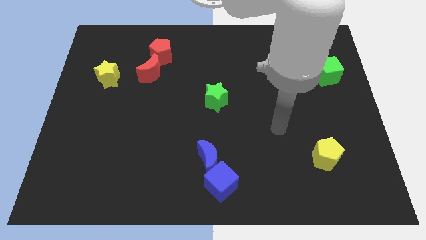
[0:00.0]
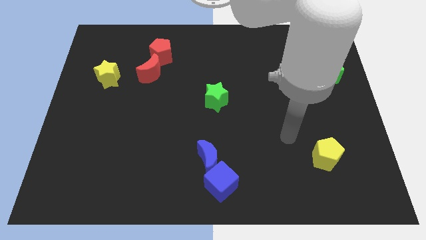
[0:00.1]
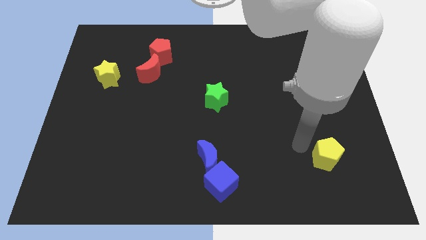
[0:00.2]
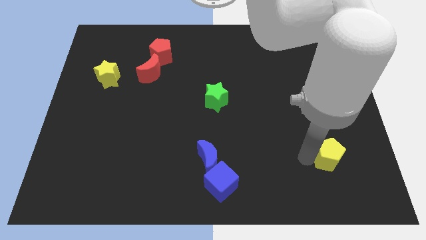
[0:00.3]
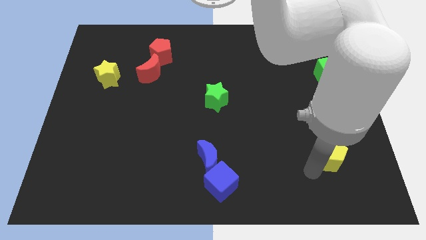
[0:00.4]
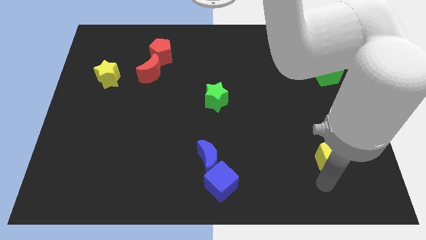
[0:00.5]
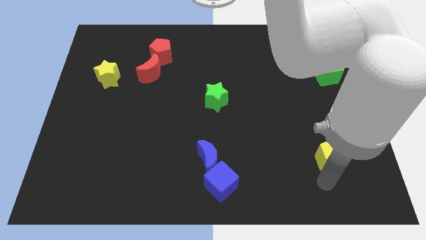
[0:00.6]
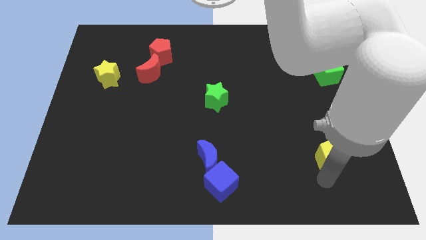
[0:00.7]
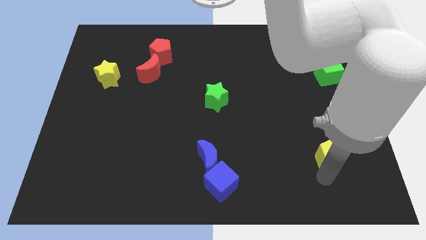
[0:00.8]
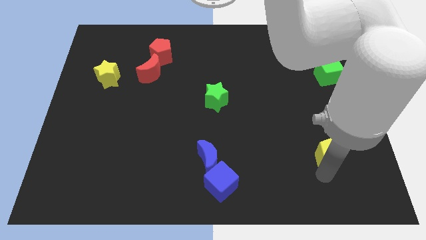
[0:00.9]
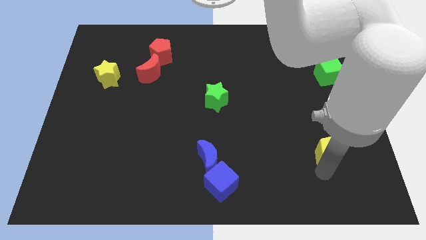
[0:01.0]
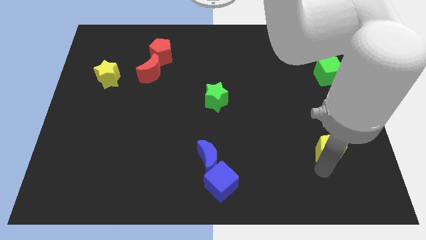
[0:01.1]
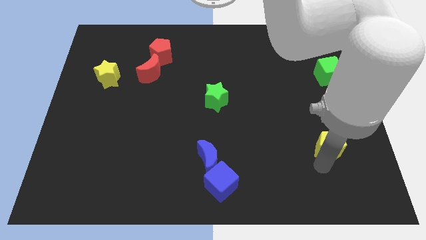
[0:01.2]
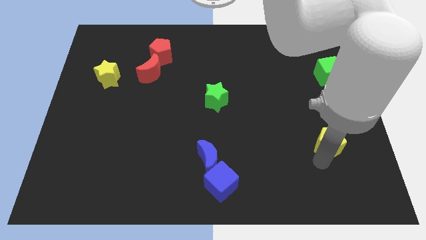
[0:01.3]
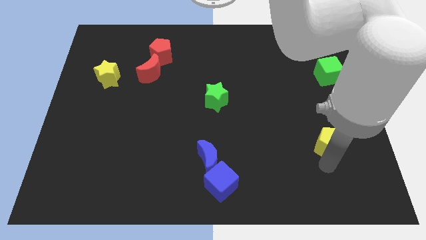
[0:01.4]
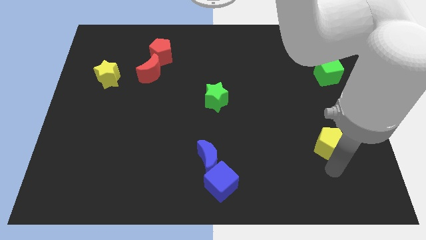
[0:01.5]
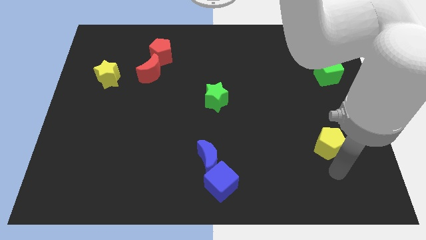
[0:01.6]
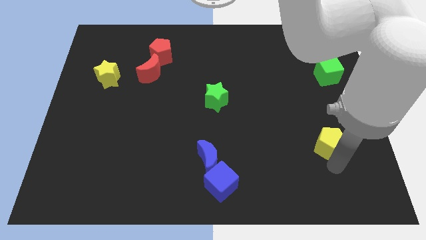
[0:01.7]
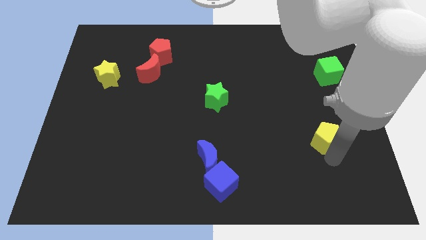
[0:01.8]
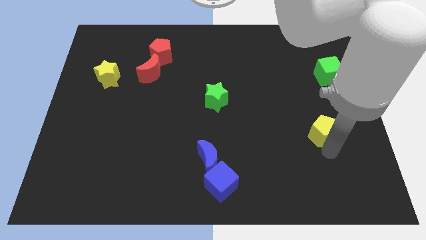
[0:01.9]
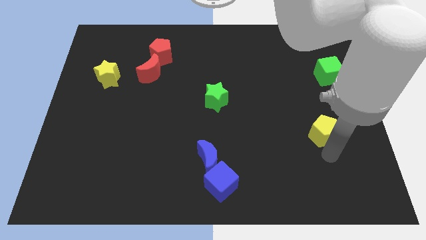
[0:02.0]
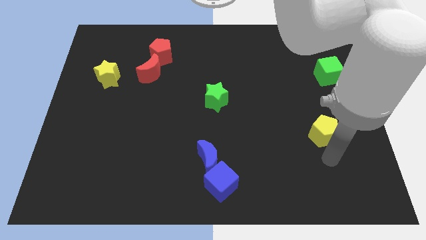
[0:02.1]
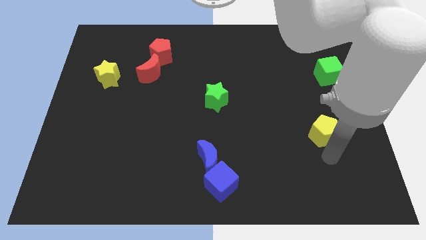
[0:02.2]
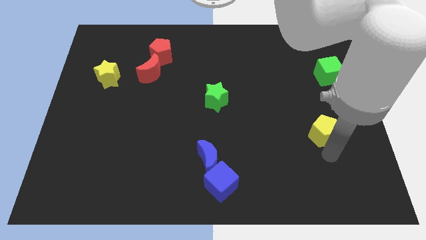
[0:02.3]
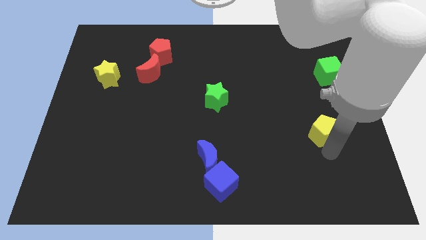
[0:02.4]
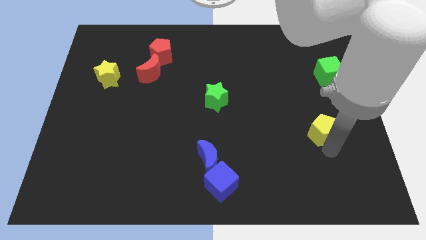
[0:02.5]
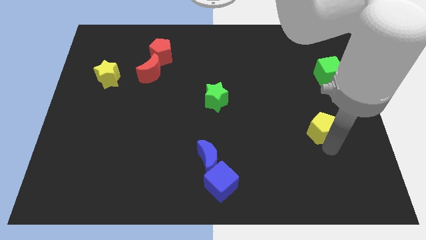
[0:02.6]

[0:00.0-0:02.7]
slightly slide the yellow pentagon upwards

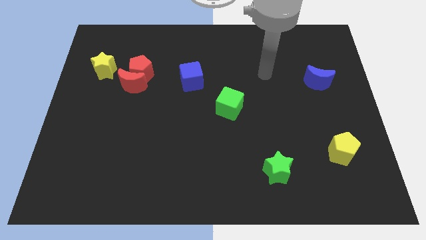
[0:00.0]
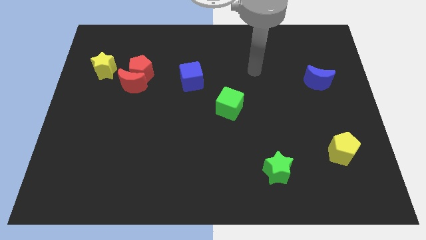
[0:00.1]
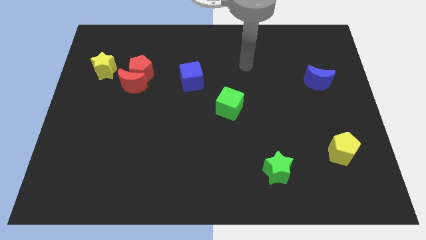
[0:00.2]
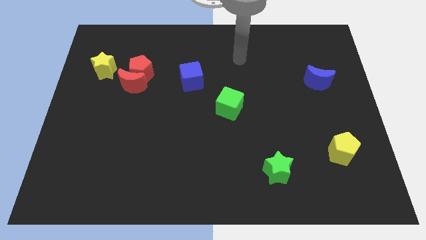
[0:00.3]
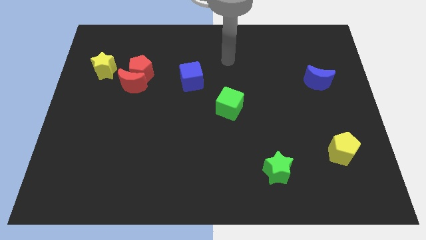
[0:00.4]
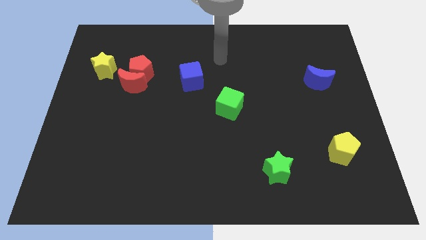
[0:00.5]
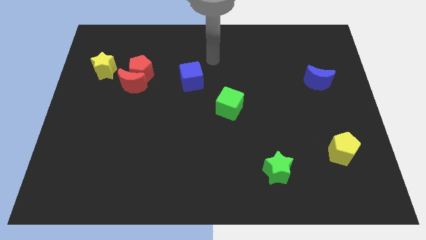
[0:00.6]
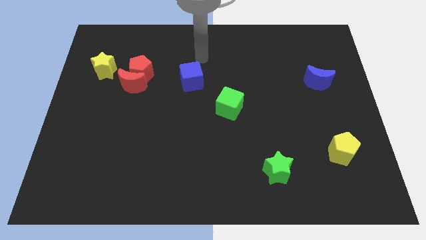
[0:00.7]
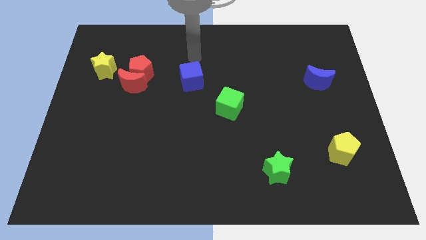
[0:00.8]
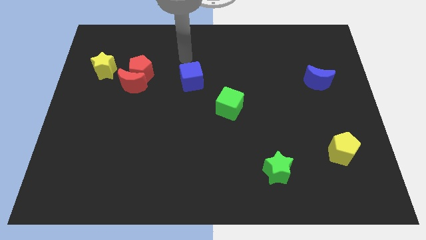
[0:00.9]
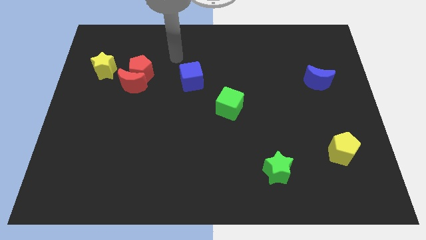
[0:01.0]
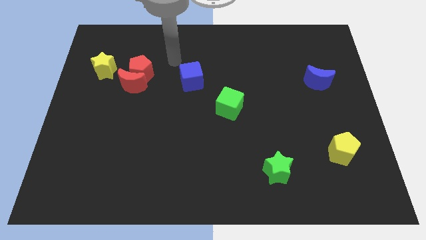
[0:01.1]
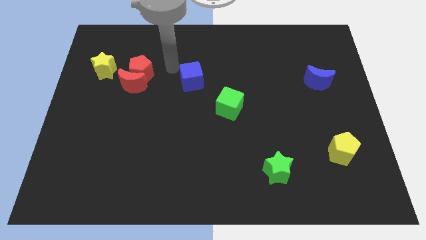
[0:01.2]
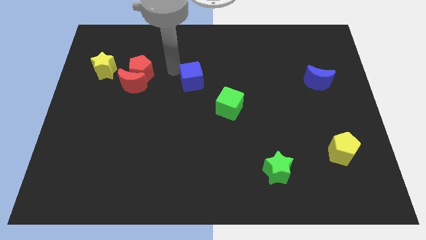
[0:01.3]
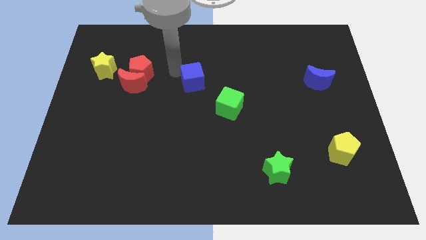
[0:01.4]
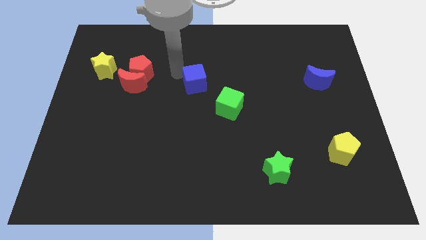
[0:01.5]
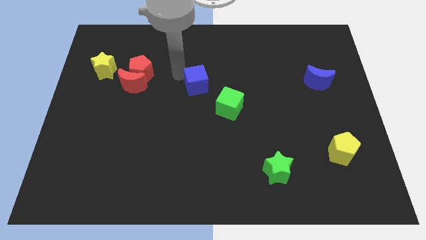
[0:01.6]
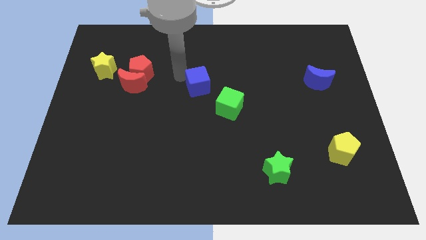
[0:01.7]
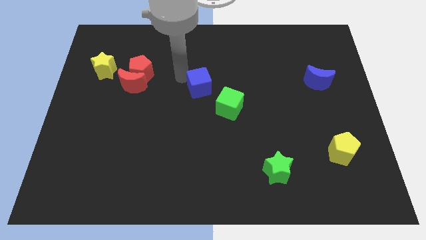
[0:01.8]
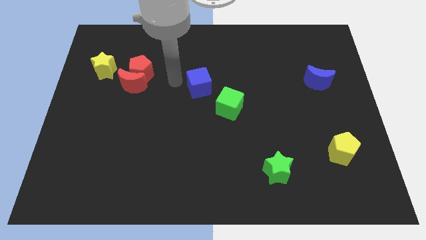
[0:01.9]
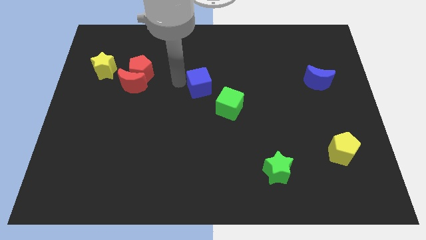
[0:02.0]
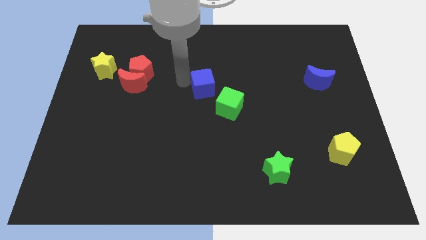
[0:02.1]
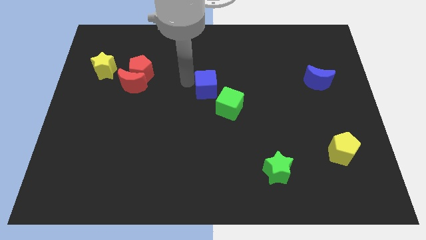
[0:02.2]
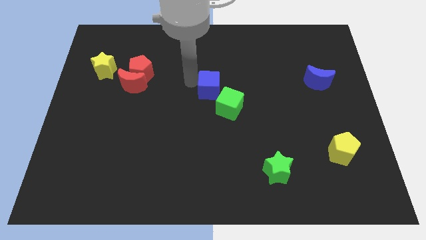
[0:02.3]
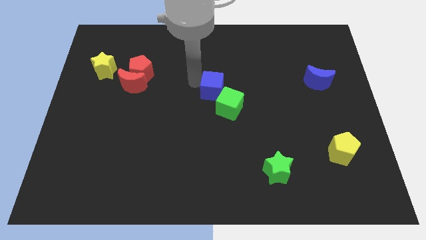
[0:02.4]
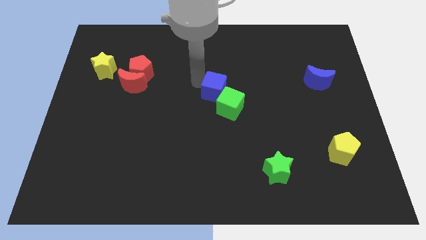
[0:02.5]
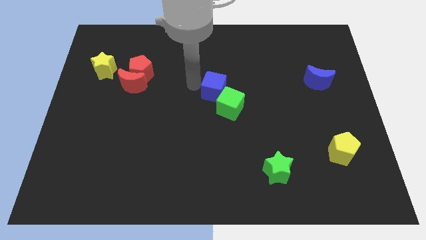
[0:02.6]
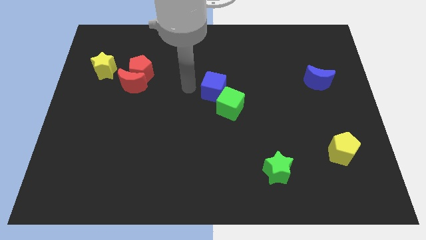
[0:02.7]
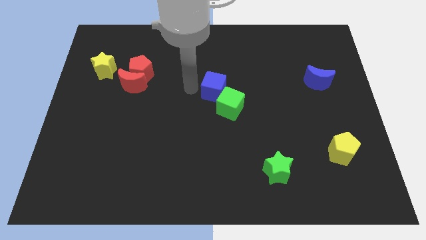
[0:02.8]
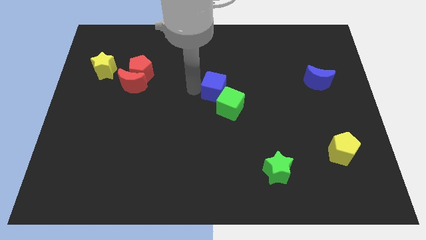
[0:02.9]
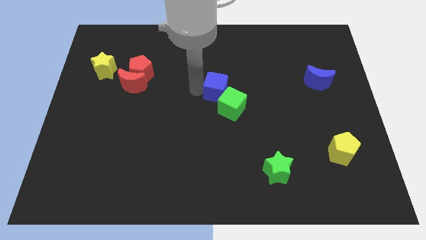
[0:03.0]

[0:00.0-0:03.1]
push the blue cube slightly down and to the right

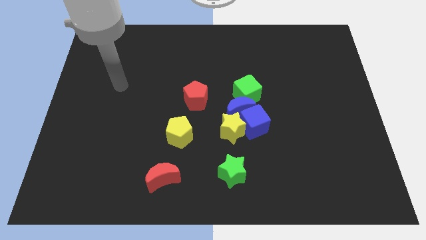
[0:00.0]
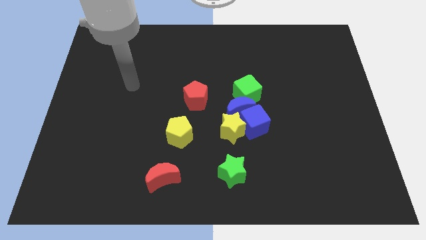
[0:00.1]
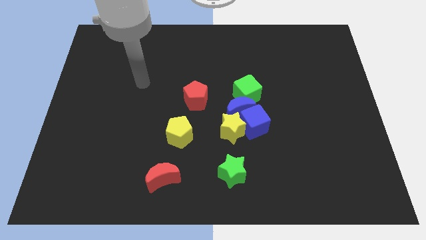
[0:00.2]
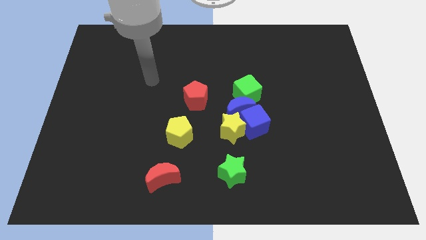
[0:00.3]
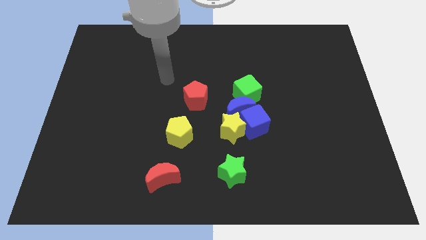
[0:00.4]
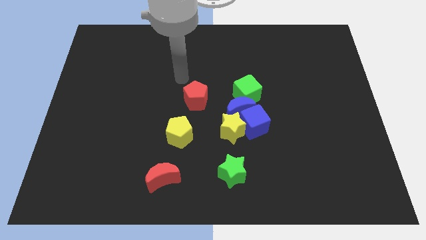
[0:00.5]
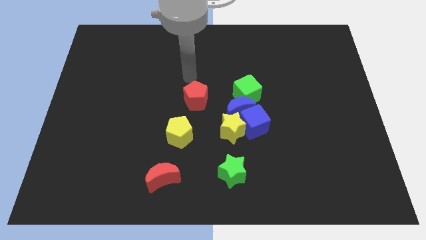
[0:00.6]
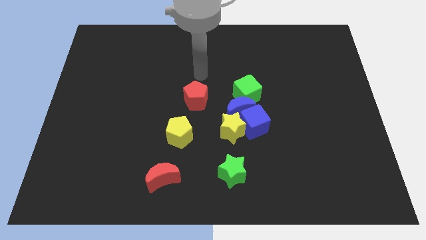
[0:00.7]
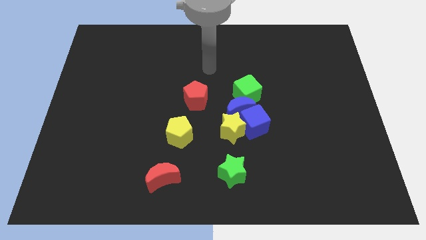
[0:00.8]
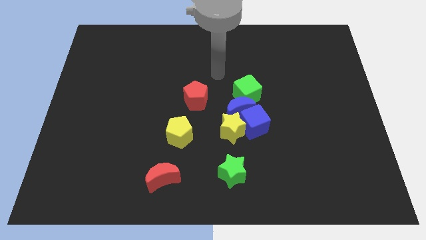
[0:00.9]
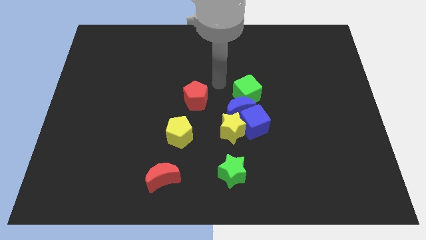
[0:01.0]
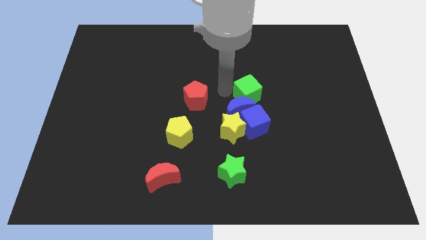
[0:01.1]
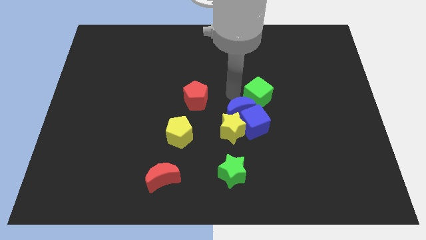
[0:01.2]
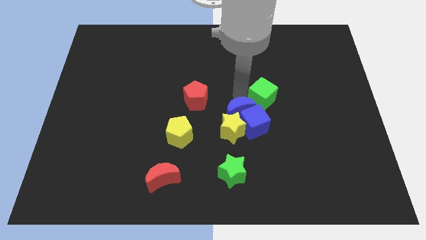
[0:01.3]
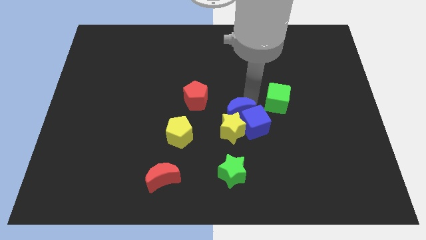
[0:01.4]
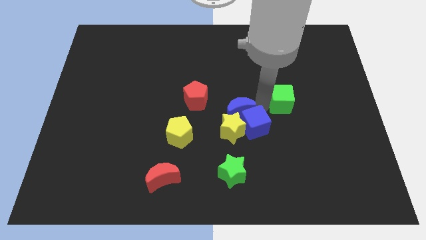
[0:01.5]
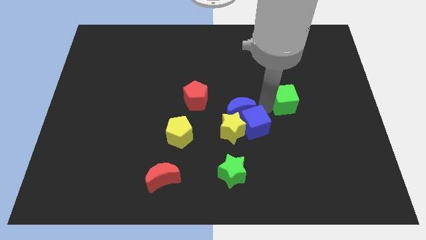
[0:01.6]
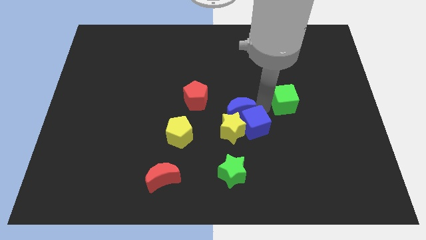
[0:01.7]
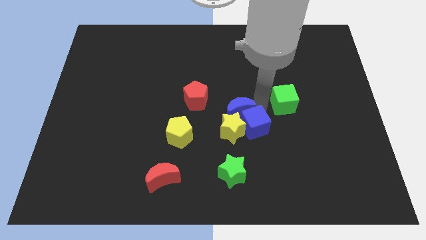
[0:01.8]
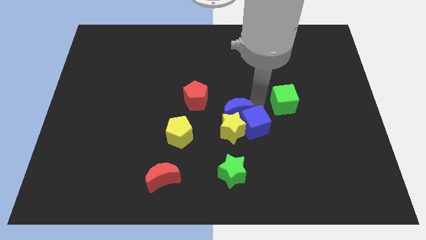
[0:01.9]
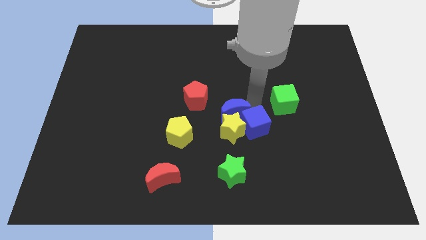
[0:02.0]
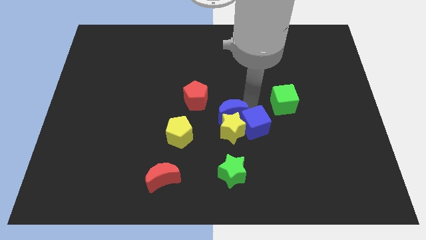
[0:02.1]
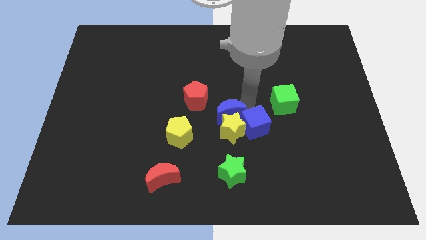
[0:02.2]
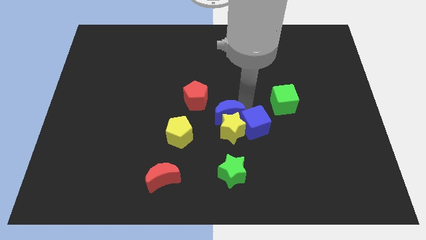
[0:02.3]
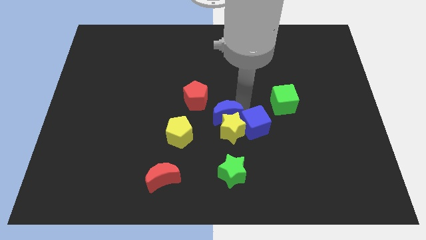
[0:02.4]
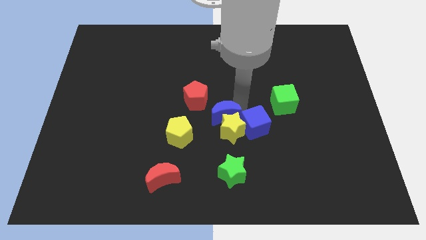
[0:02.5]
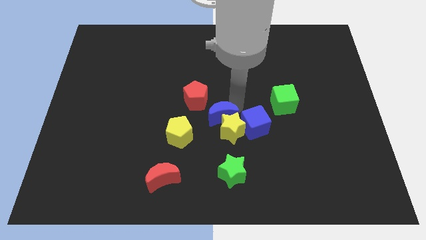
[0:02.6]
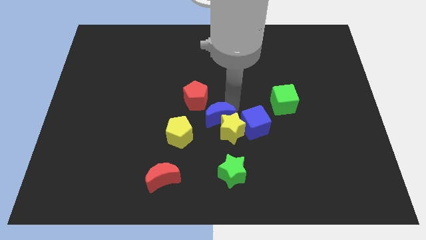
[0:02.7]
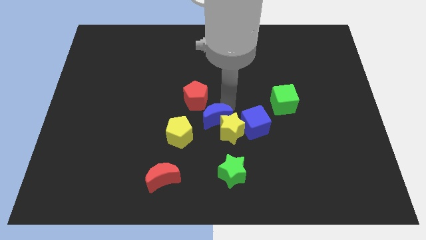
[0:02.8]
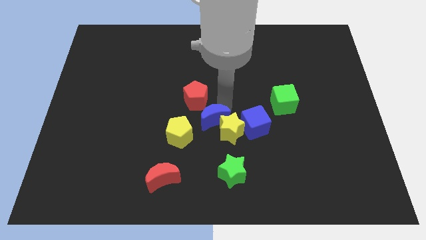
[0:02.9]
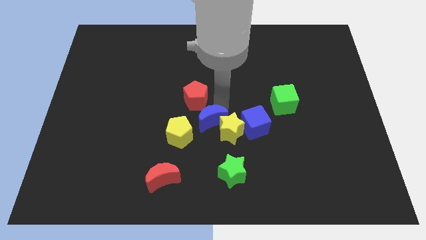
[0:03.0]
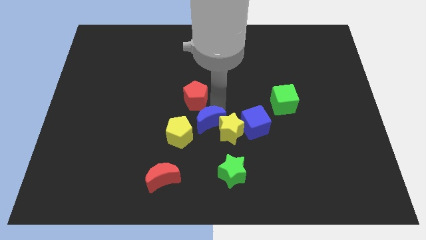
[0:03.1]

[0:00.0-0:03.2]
slightly slide the blue moon to the left
